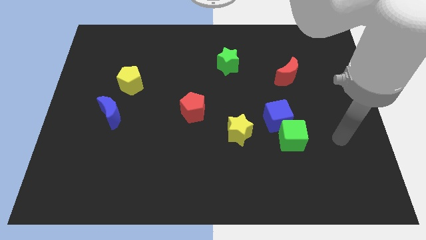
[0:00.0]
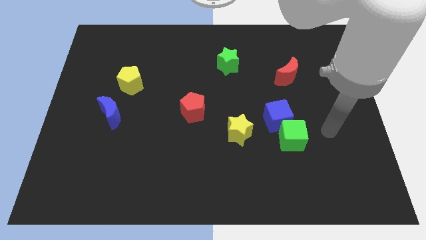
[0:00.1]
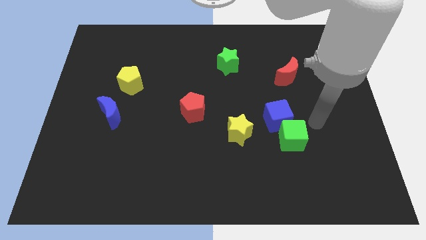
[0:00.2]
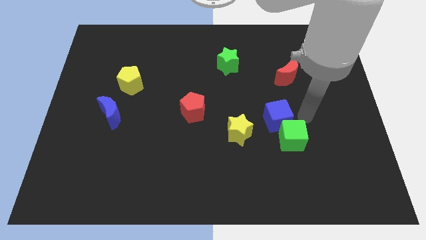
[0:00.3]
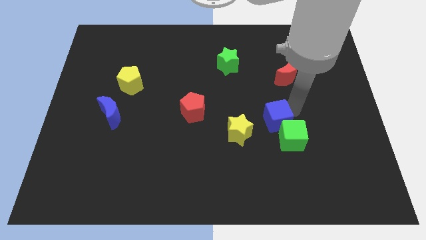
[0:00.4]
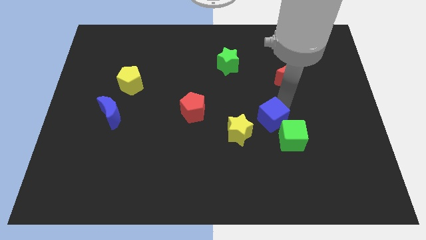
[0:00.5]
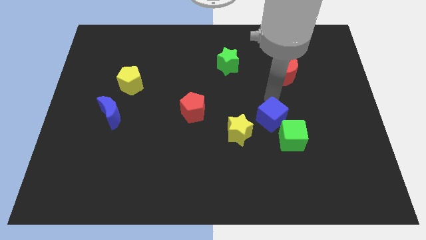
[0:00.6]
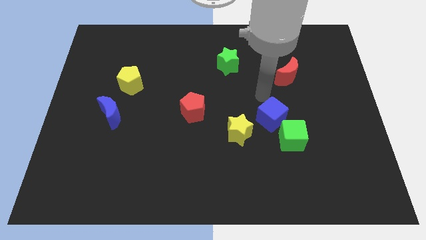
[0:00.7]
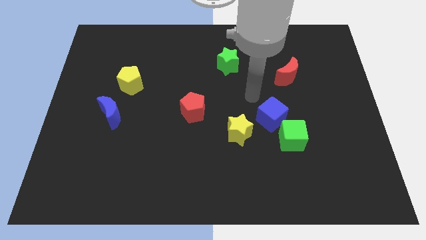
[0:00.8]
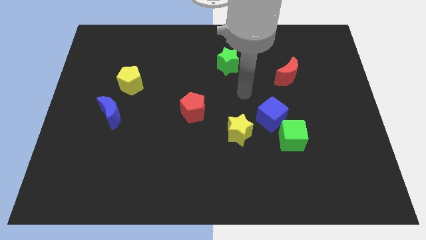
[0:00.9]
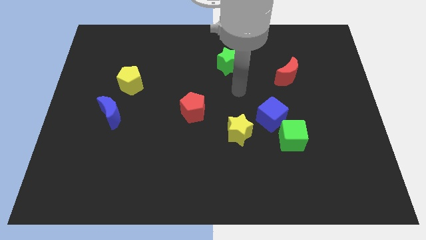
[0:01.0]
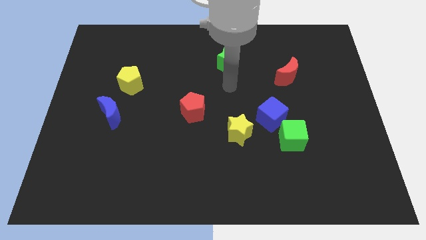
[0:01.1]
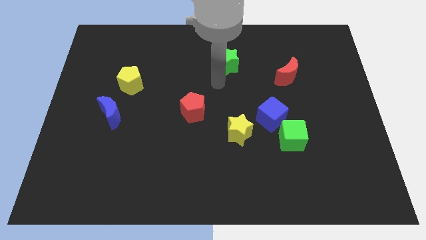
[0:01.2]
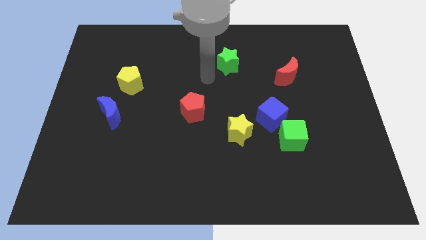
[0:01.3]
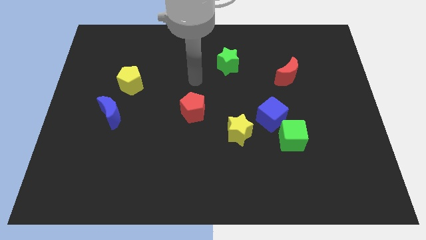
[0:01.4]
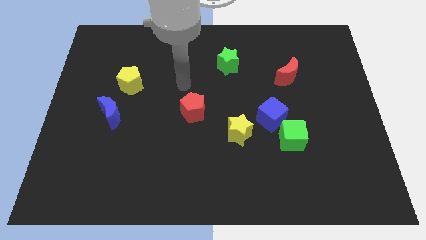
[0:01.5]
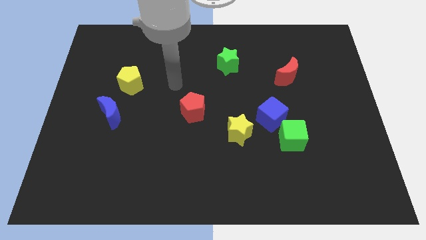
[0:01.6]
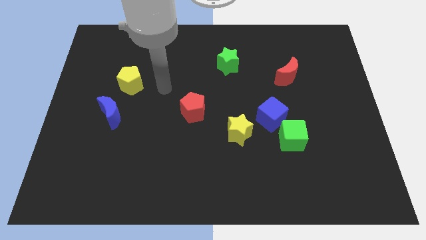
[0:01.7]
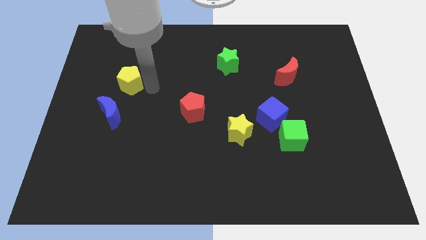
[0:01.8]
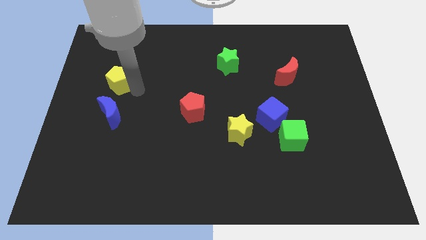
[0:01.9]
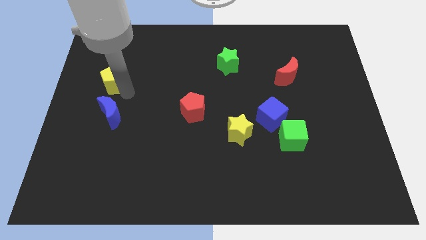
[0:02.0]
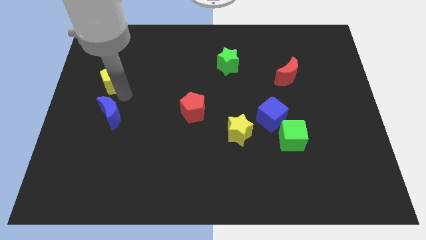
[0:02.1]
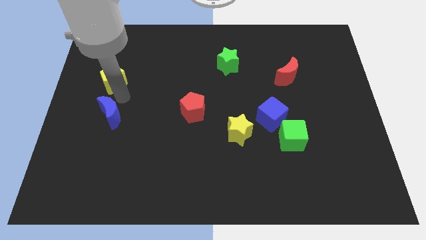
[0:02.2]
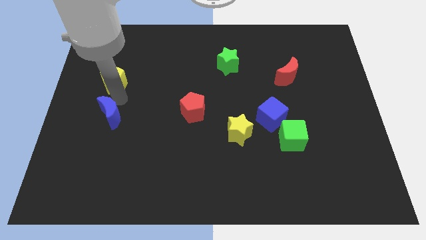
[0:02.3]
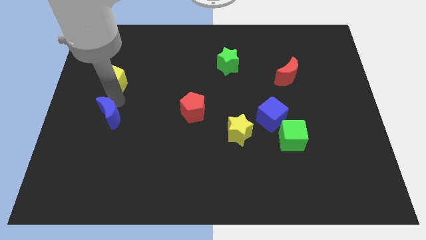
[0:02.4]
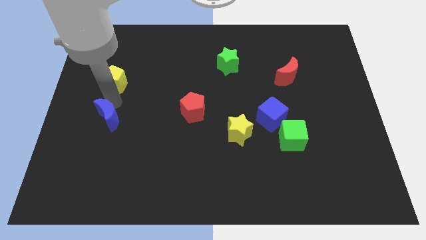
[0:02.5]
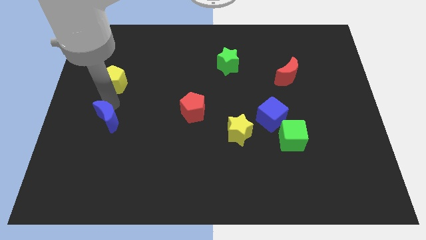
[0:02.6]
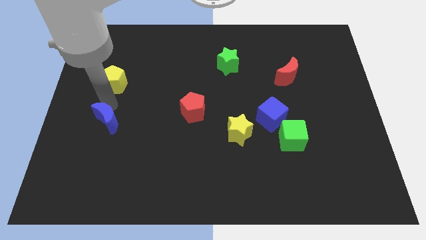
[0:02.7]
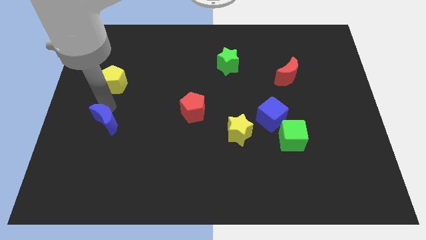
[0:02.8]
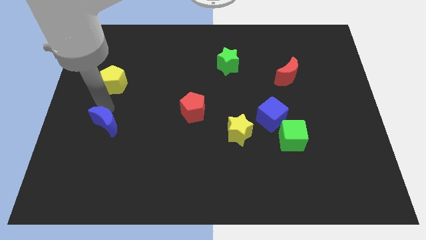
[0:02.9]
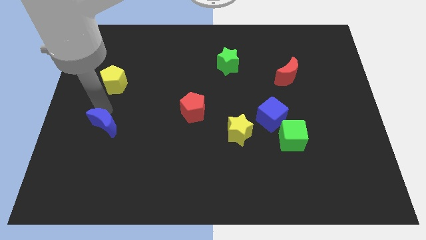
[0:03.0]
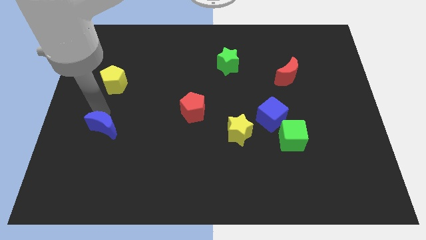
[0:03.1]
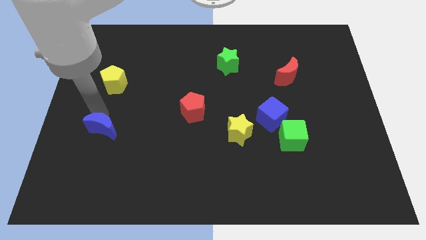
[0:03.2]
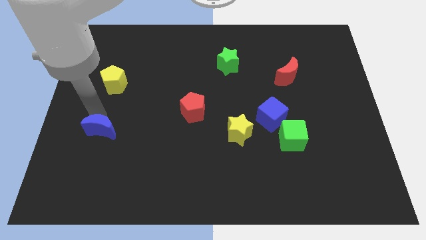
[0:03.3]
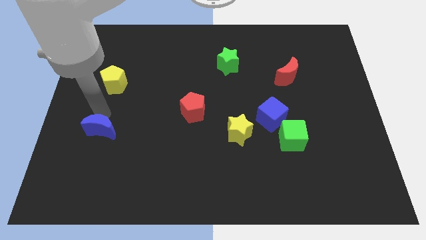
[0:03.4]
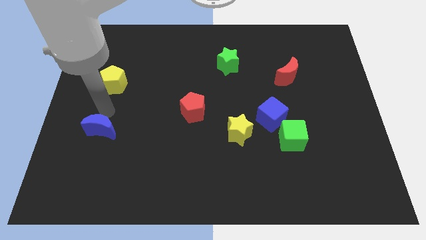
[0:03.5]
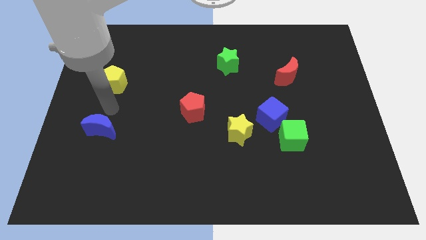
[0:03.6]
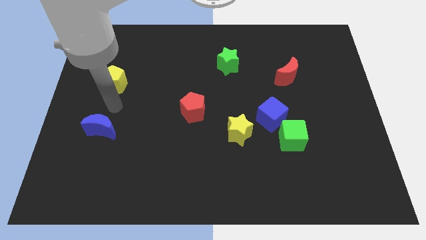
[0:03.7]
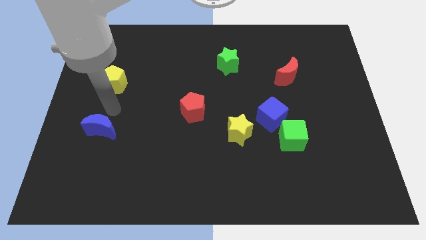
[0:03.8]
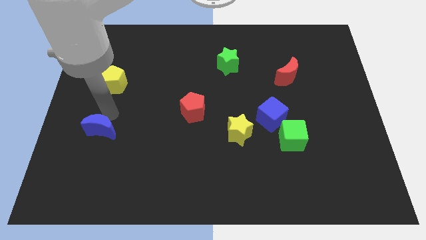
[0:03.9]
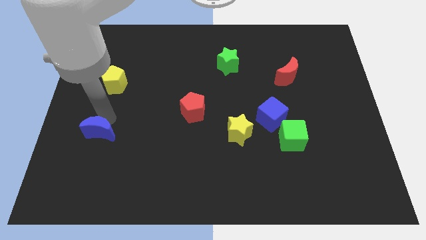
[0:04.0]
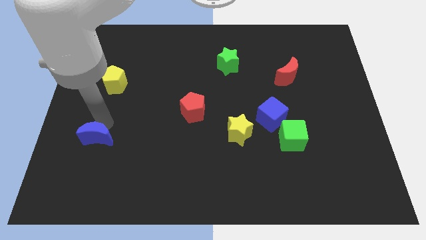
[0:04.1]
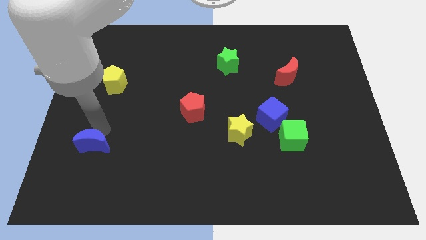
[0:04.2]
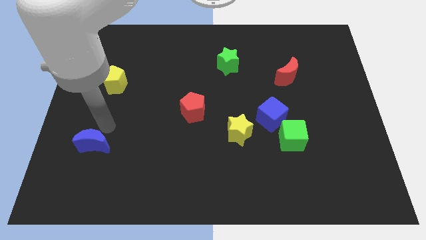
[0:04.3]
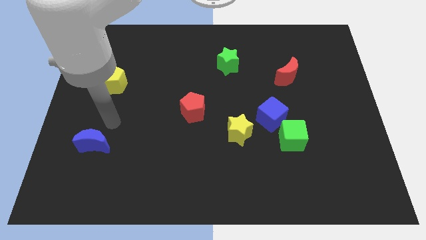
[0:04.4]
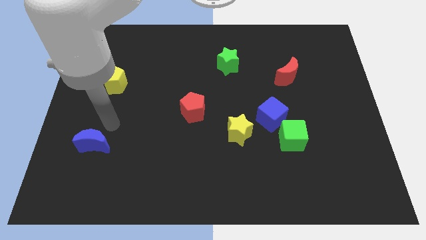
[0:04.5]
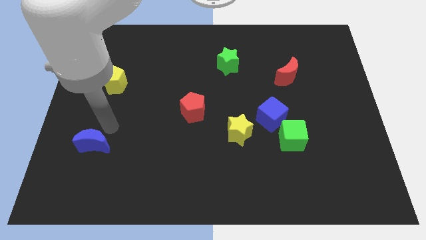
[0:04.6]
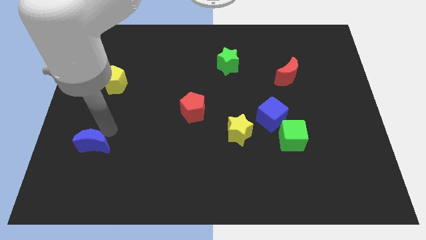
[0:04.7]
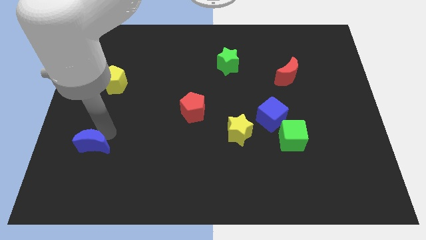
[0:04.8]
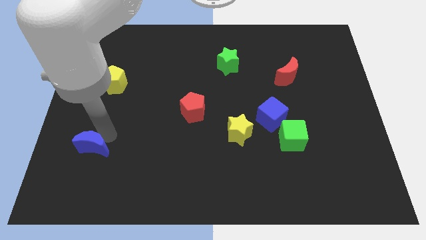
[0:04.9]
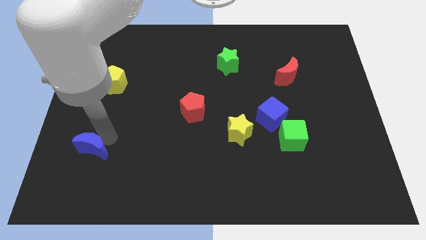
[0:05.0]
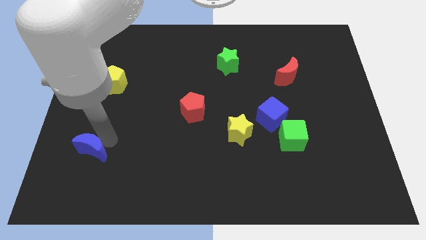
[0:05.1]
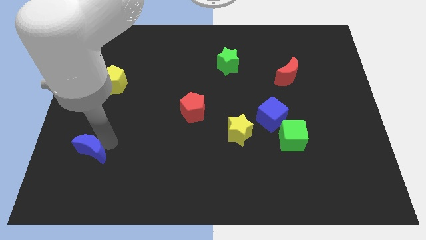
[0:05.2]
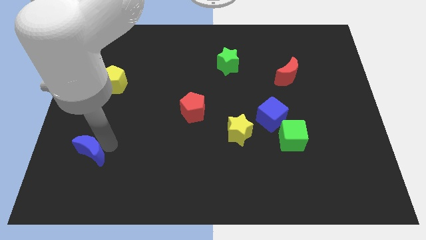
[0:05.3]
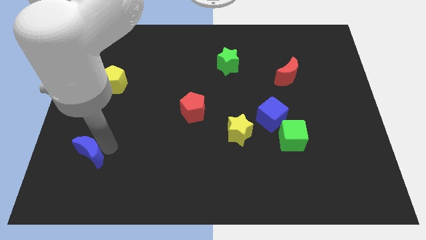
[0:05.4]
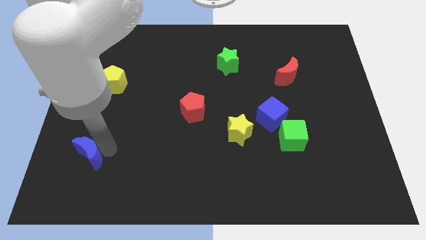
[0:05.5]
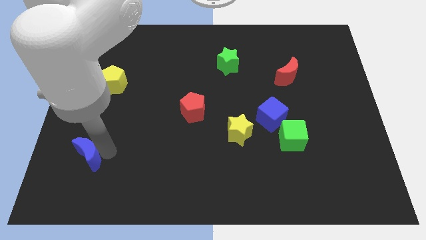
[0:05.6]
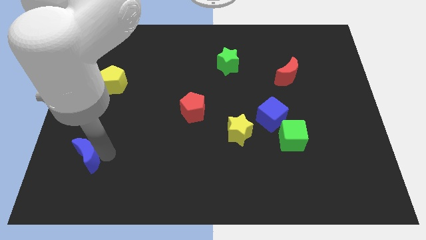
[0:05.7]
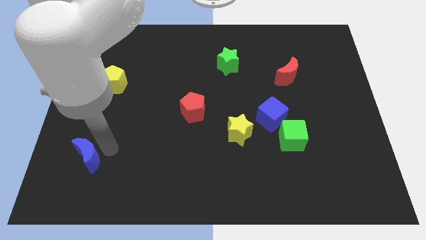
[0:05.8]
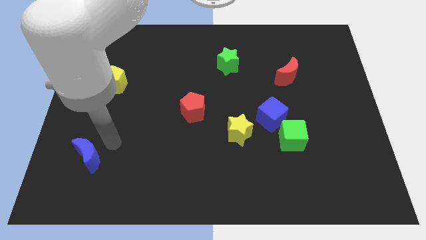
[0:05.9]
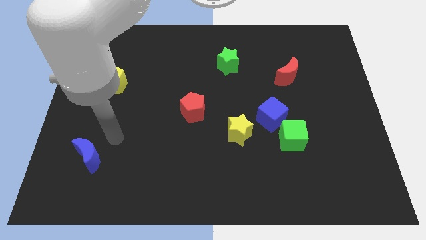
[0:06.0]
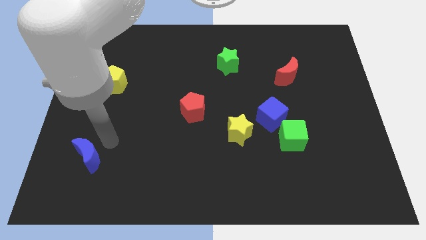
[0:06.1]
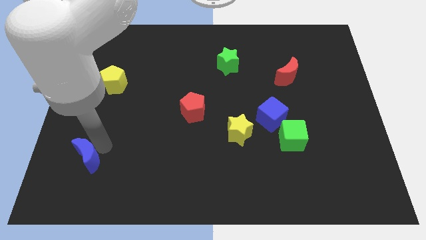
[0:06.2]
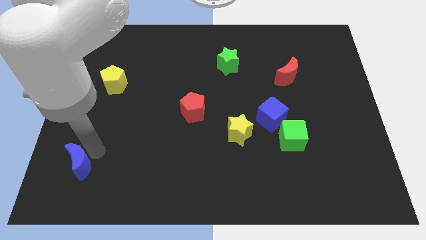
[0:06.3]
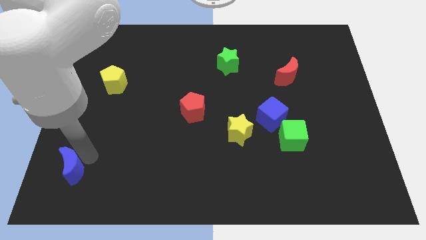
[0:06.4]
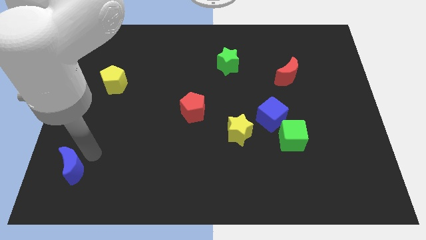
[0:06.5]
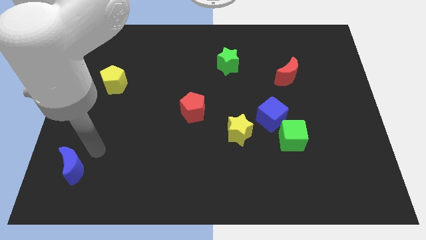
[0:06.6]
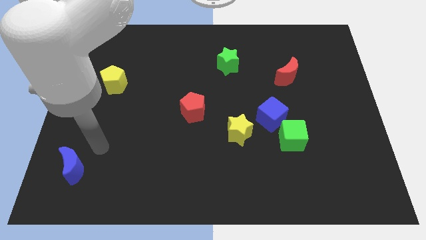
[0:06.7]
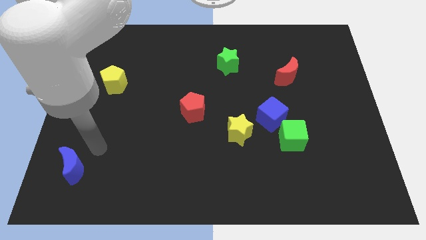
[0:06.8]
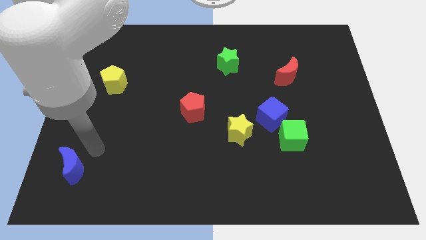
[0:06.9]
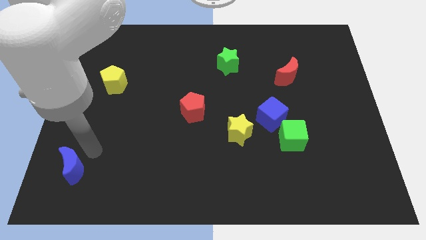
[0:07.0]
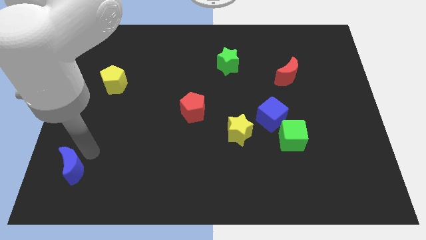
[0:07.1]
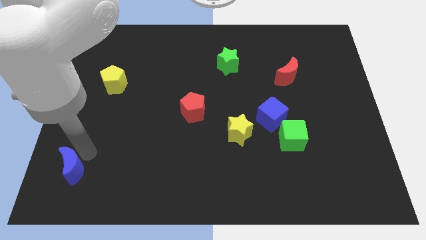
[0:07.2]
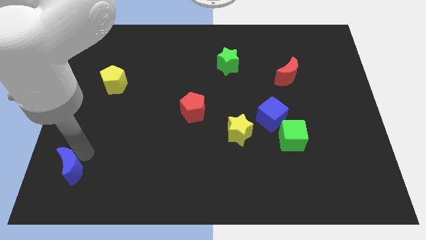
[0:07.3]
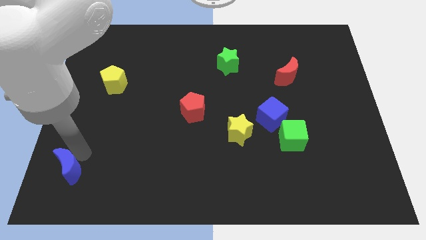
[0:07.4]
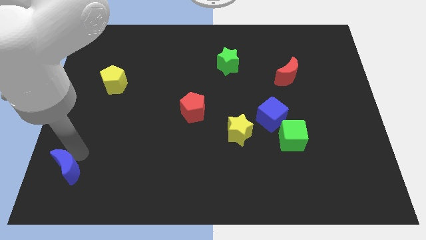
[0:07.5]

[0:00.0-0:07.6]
slide the blue moon to the bottom left of the board
